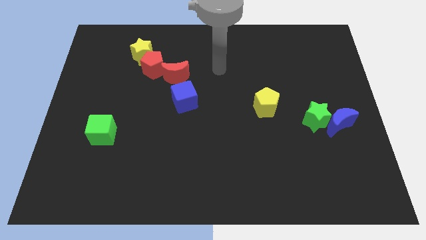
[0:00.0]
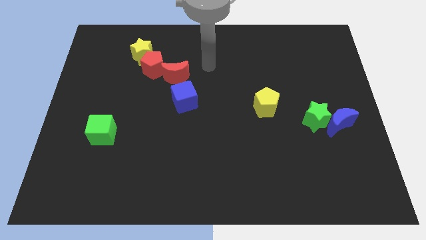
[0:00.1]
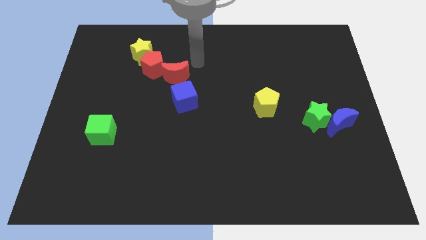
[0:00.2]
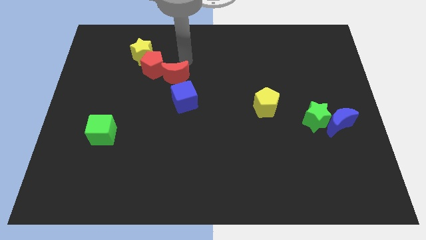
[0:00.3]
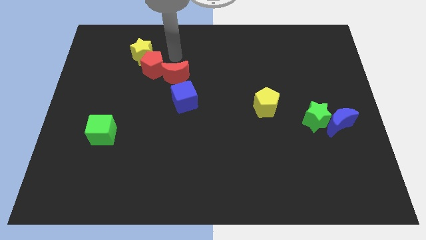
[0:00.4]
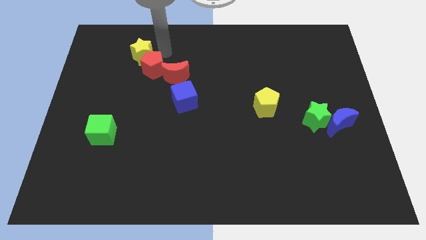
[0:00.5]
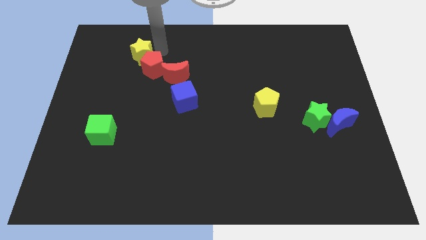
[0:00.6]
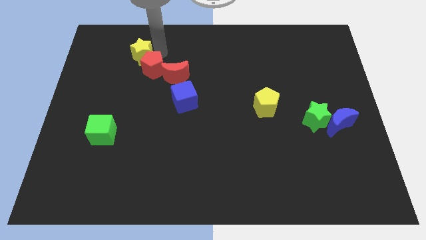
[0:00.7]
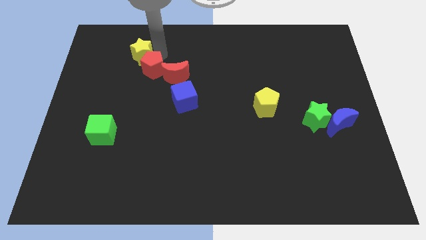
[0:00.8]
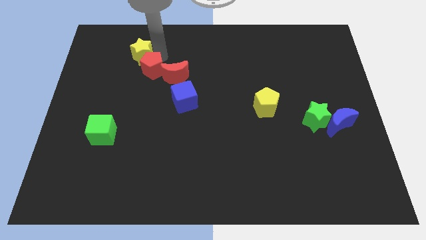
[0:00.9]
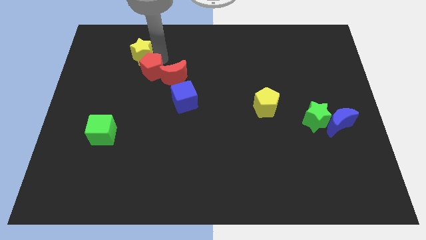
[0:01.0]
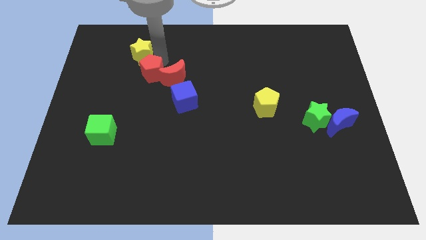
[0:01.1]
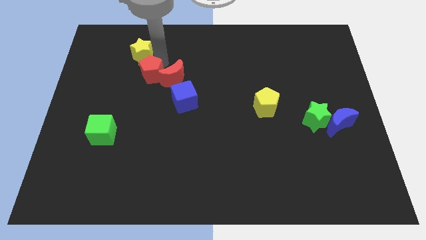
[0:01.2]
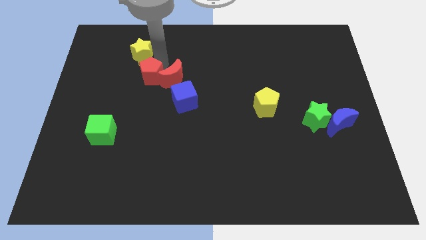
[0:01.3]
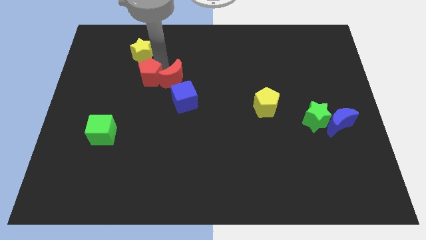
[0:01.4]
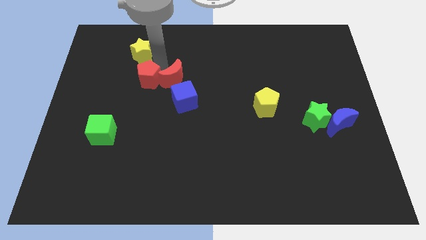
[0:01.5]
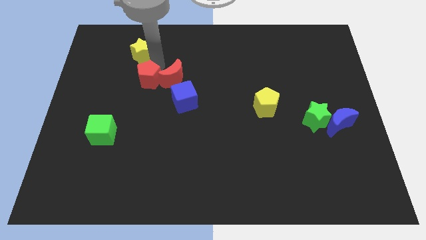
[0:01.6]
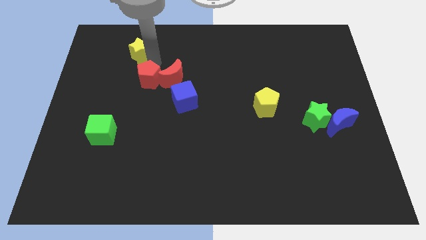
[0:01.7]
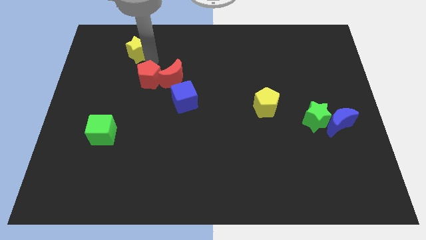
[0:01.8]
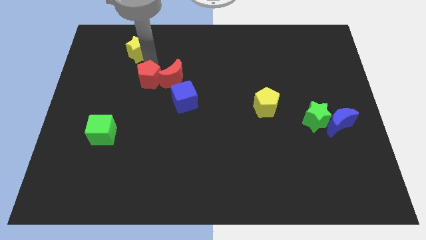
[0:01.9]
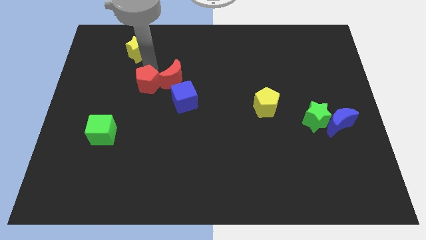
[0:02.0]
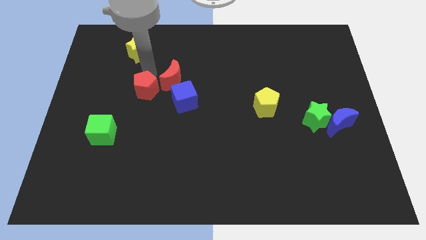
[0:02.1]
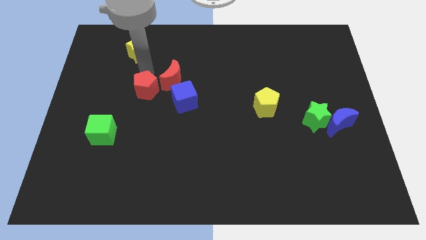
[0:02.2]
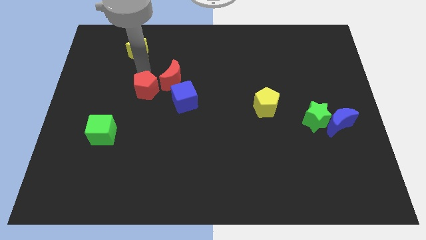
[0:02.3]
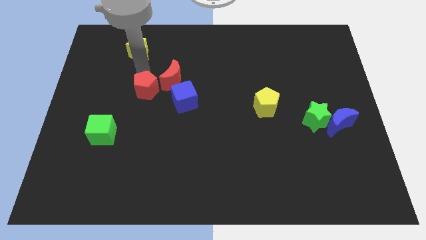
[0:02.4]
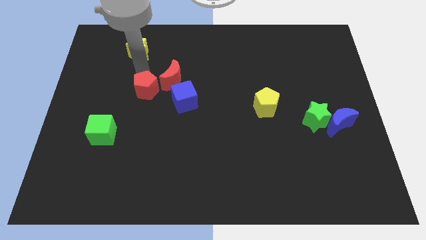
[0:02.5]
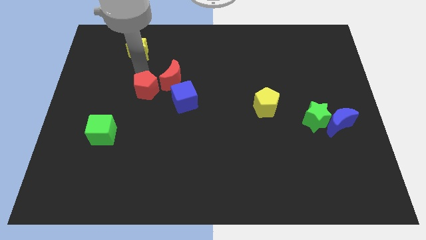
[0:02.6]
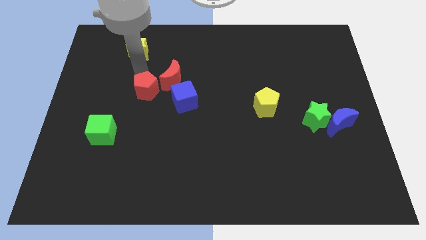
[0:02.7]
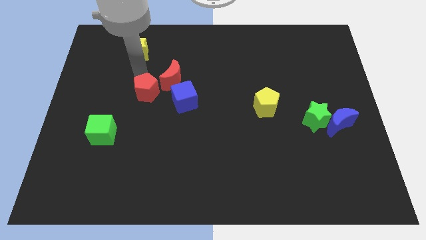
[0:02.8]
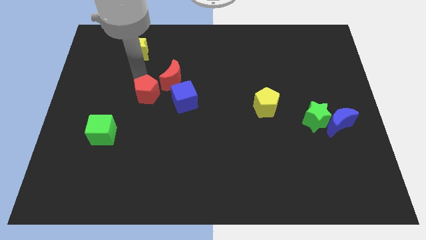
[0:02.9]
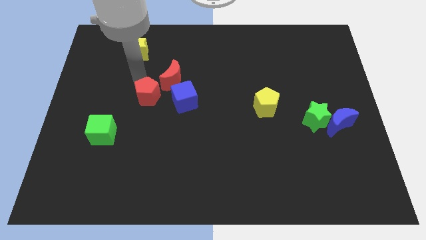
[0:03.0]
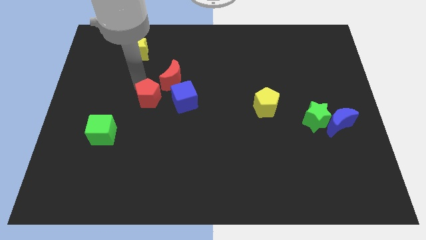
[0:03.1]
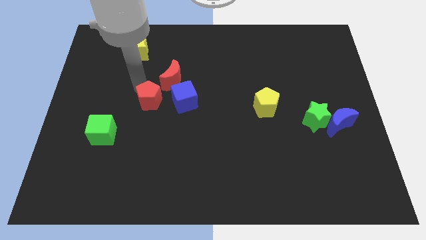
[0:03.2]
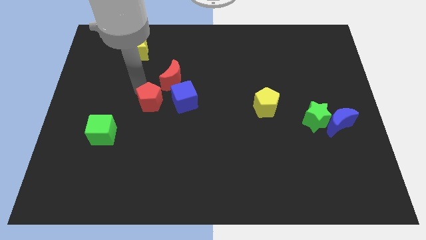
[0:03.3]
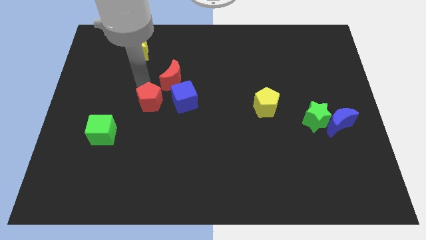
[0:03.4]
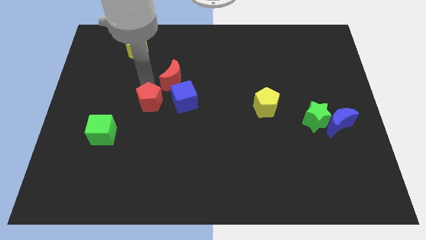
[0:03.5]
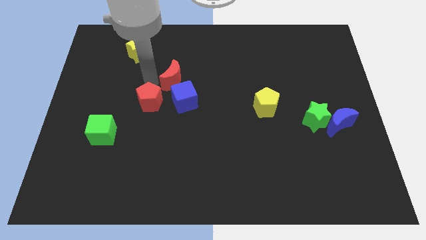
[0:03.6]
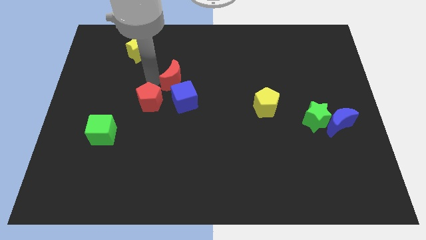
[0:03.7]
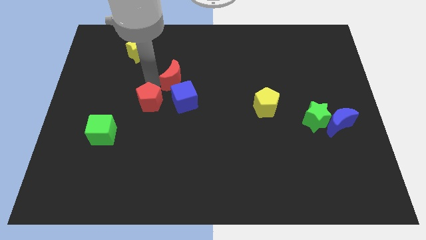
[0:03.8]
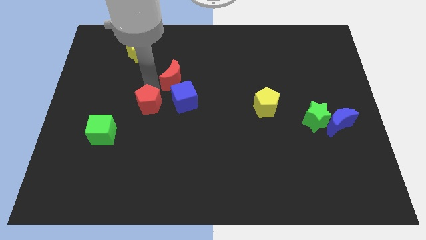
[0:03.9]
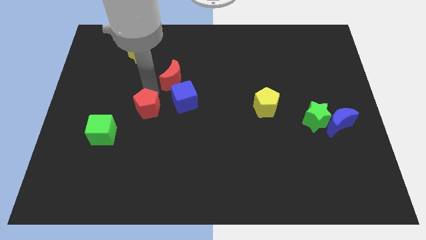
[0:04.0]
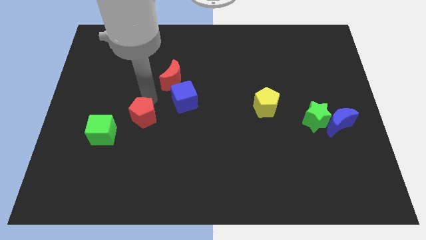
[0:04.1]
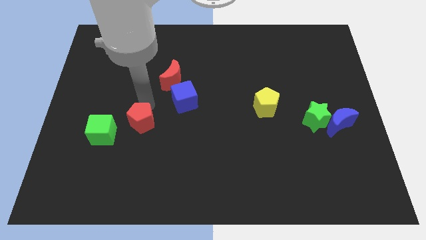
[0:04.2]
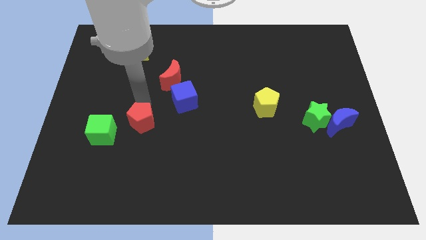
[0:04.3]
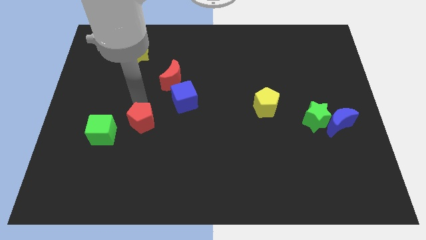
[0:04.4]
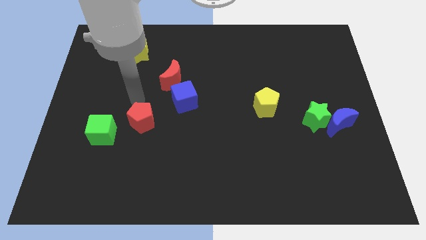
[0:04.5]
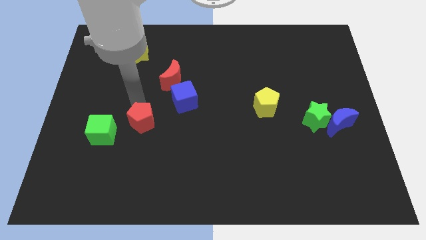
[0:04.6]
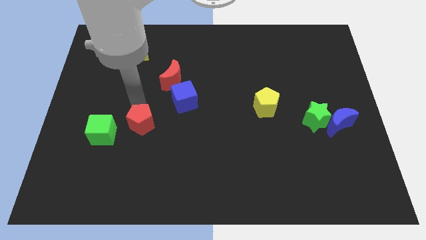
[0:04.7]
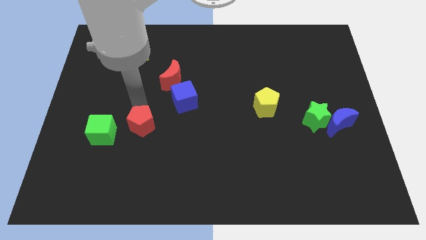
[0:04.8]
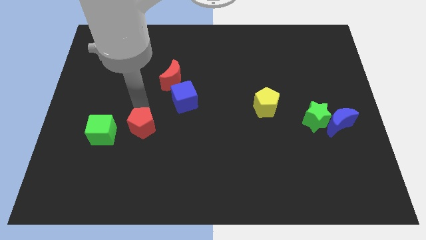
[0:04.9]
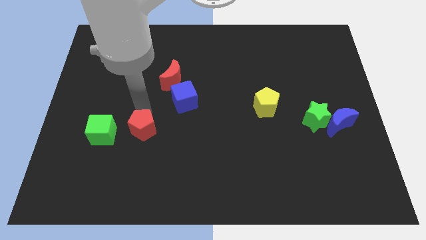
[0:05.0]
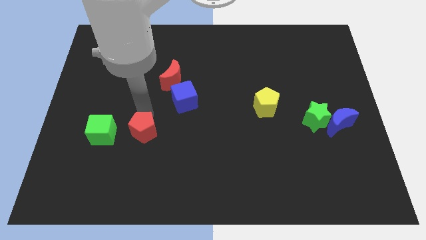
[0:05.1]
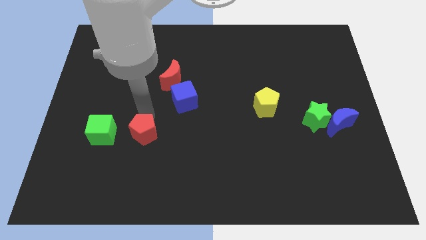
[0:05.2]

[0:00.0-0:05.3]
slide the red pentagon downwards

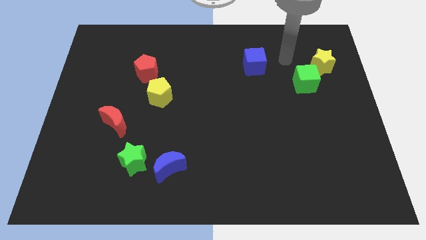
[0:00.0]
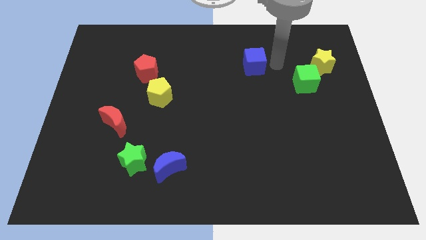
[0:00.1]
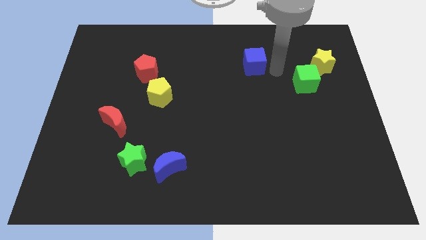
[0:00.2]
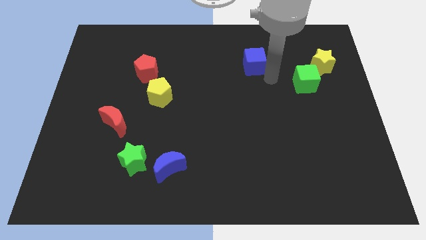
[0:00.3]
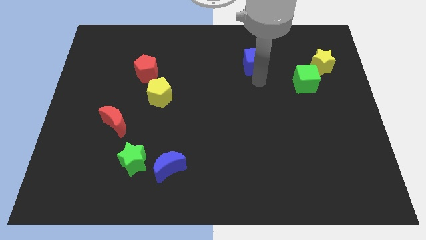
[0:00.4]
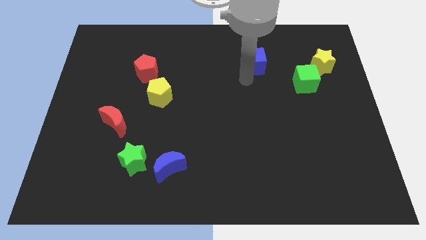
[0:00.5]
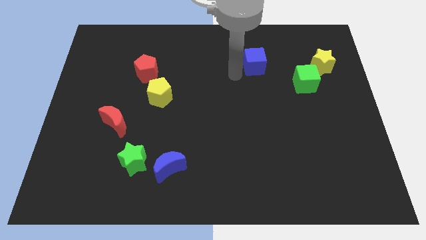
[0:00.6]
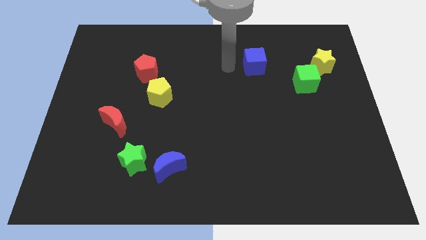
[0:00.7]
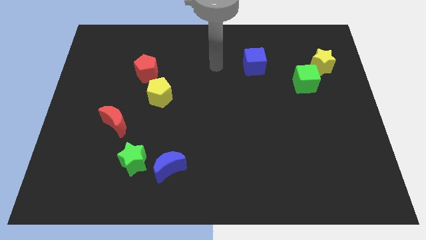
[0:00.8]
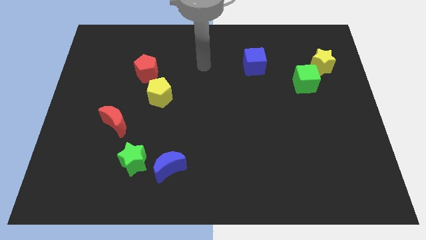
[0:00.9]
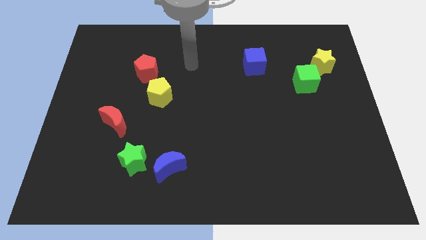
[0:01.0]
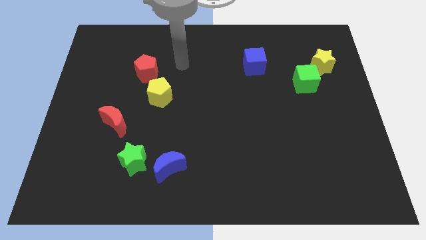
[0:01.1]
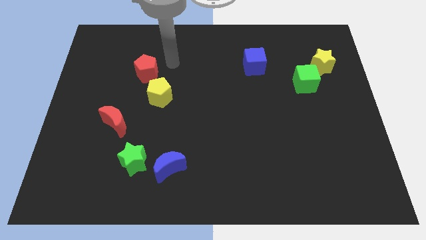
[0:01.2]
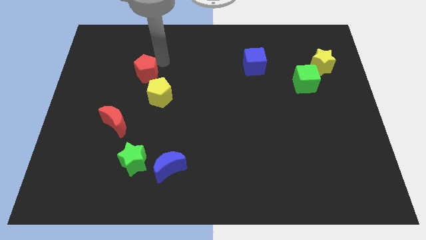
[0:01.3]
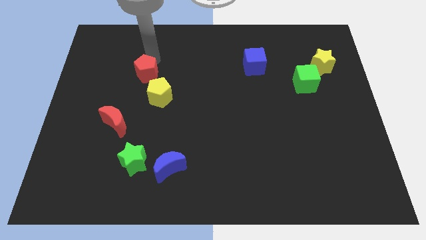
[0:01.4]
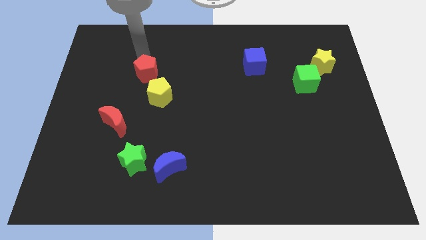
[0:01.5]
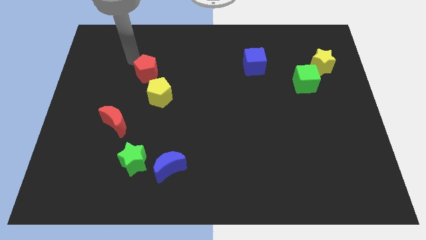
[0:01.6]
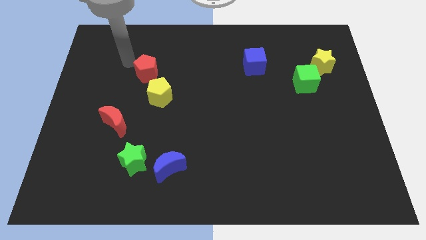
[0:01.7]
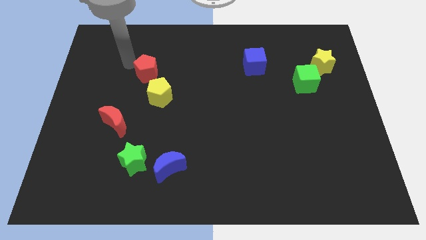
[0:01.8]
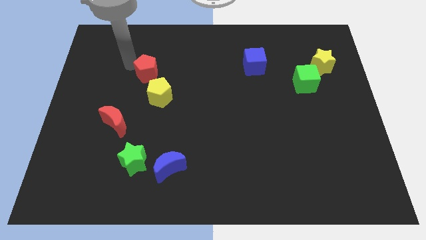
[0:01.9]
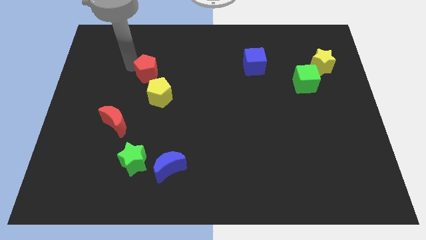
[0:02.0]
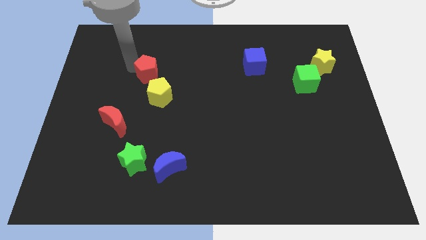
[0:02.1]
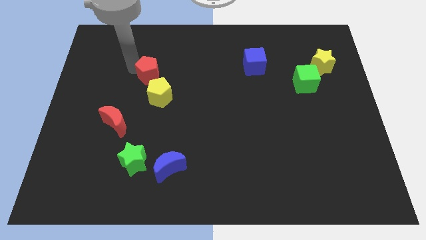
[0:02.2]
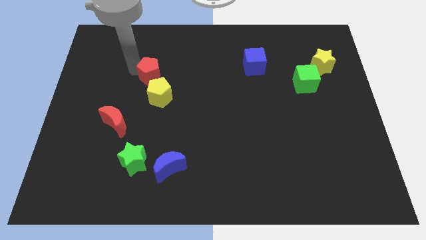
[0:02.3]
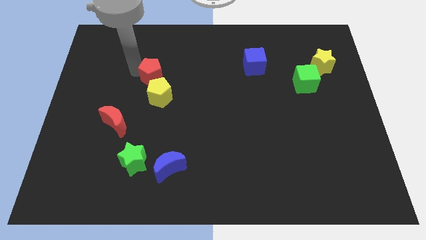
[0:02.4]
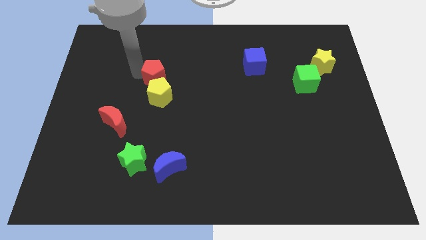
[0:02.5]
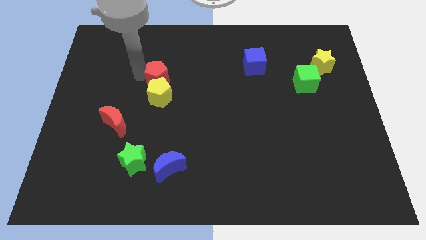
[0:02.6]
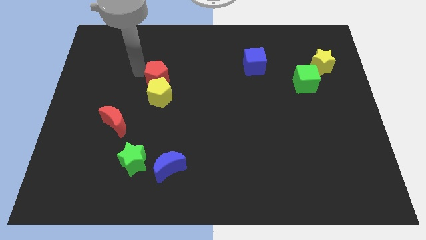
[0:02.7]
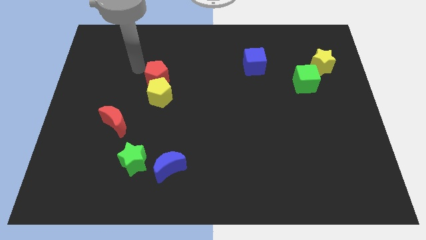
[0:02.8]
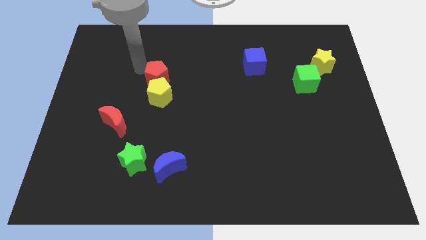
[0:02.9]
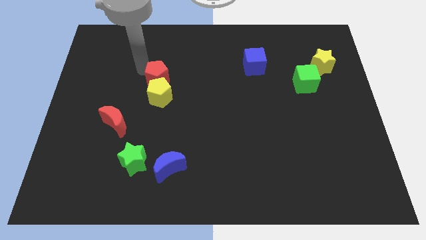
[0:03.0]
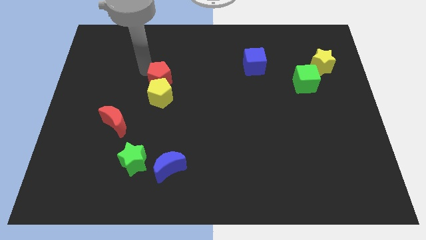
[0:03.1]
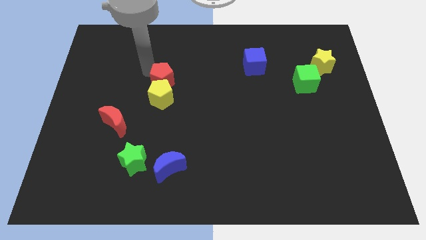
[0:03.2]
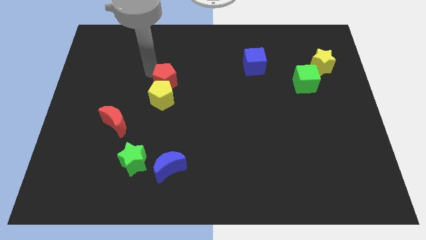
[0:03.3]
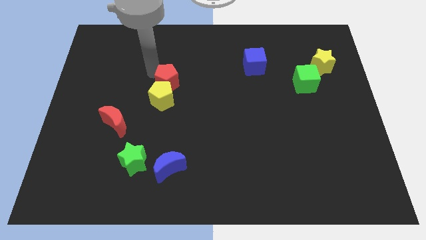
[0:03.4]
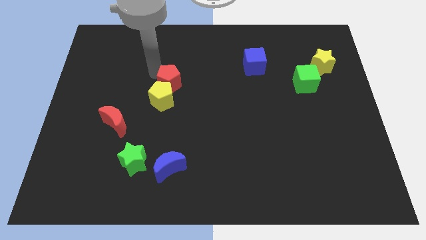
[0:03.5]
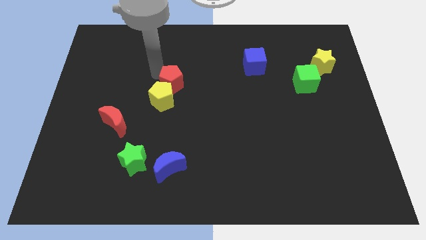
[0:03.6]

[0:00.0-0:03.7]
move the red pentagon a little down and then right
